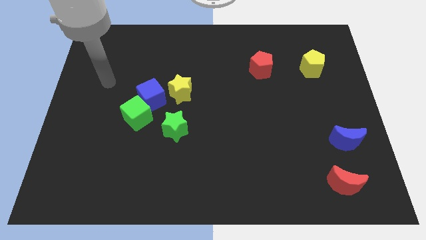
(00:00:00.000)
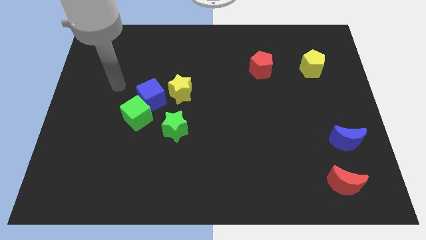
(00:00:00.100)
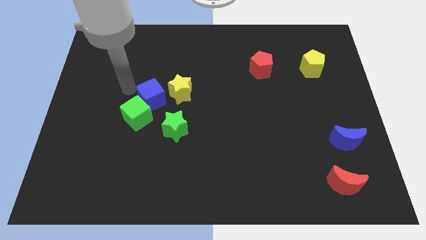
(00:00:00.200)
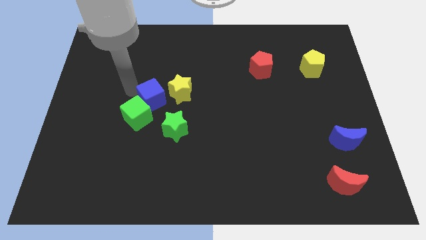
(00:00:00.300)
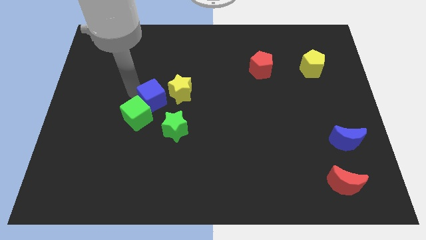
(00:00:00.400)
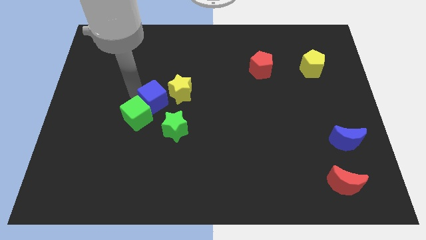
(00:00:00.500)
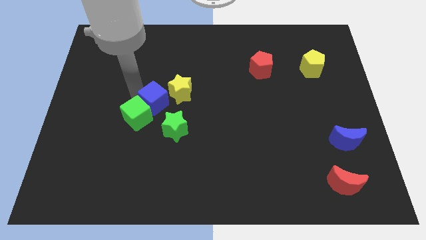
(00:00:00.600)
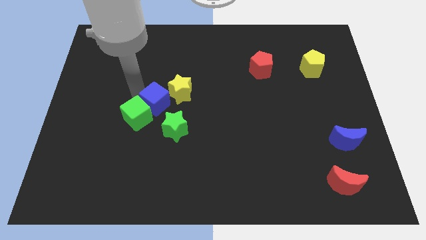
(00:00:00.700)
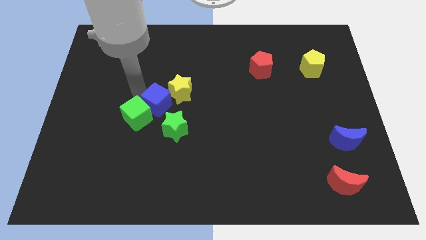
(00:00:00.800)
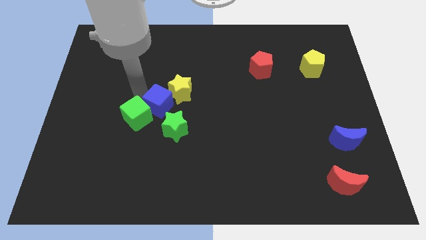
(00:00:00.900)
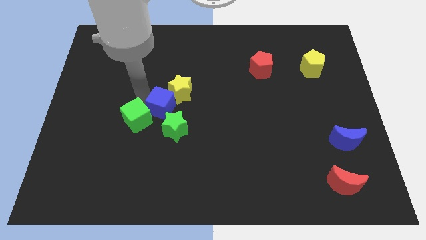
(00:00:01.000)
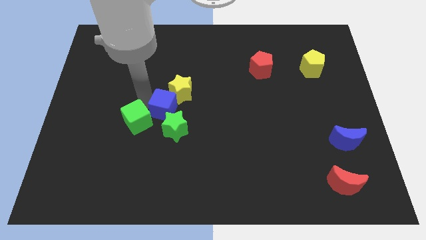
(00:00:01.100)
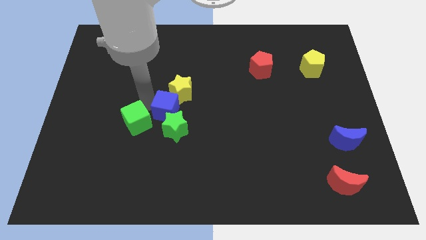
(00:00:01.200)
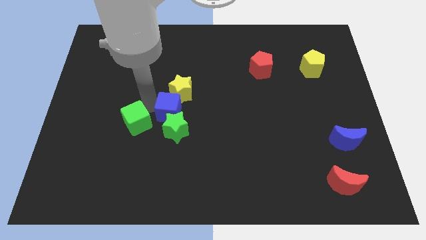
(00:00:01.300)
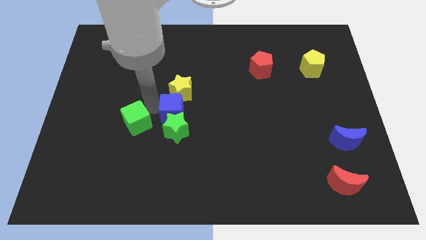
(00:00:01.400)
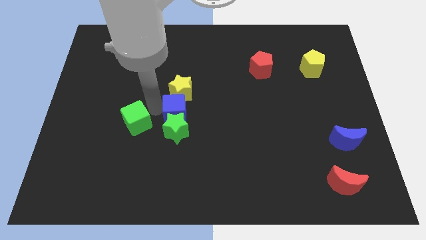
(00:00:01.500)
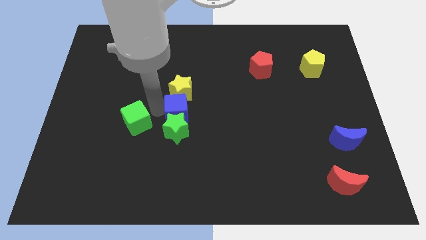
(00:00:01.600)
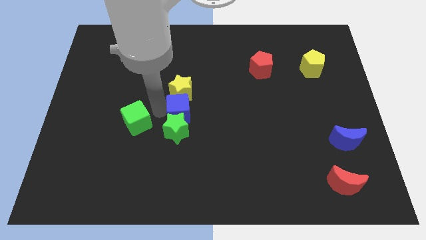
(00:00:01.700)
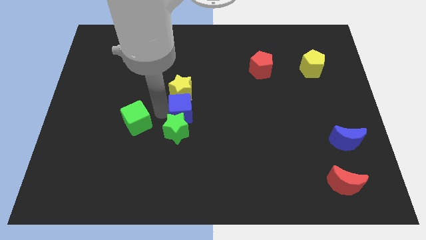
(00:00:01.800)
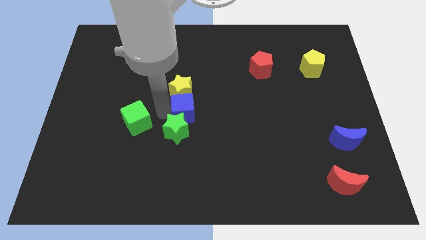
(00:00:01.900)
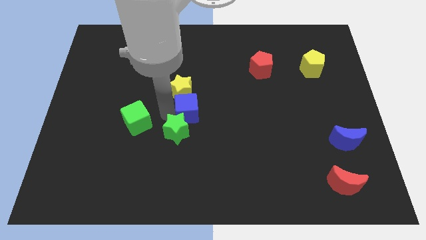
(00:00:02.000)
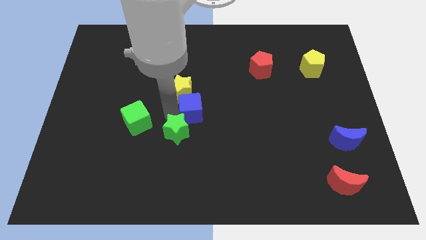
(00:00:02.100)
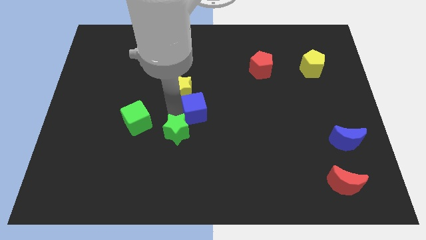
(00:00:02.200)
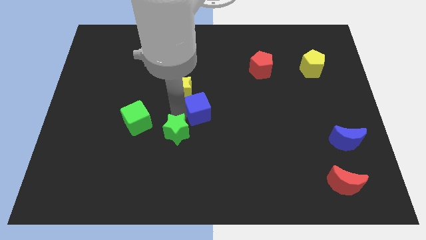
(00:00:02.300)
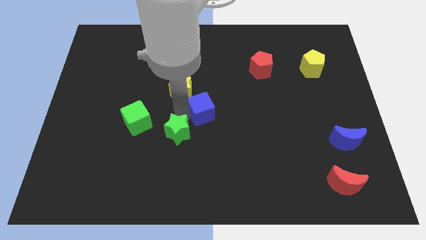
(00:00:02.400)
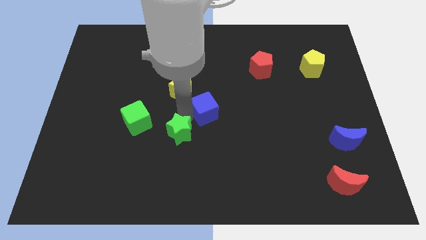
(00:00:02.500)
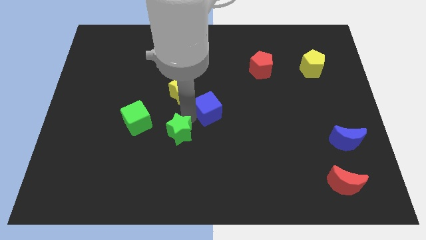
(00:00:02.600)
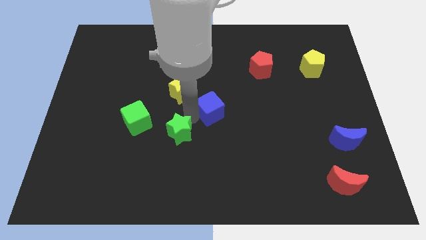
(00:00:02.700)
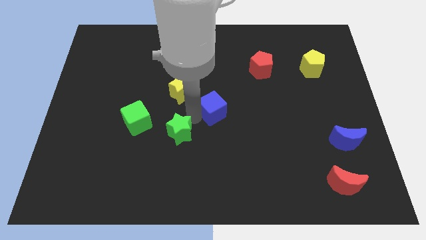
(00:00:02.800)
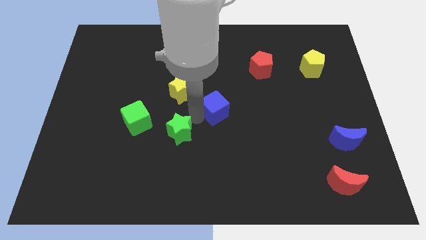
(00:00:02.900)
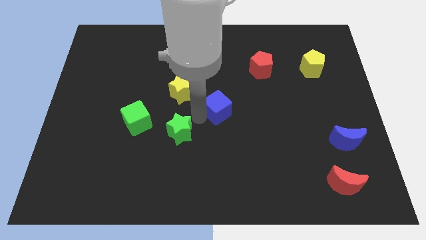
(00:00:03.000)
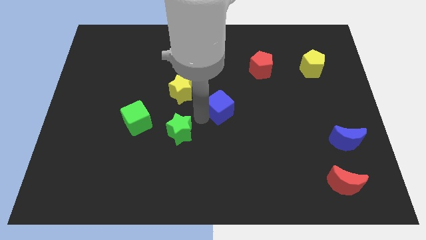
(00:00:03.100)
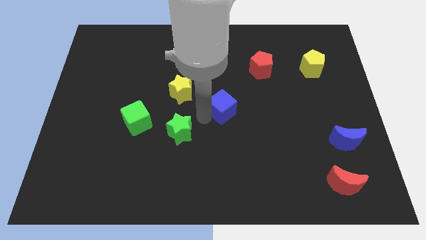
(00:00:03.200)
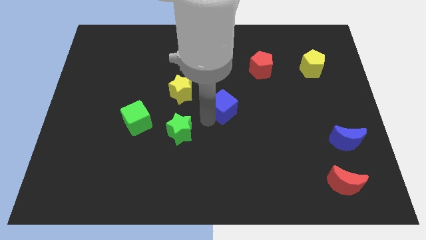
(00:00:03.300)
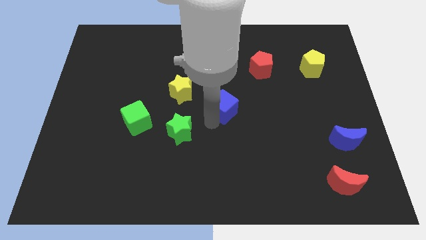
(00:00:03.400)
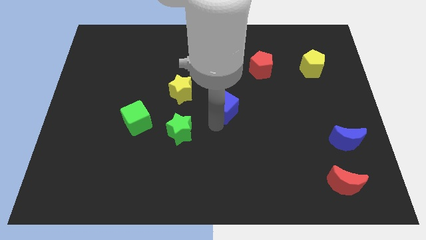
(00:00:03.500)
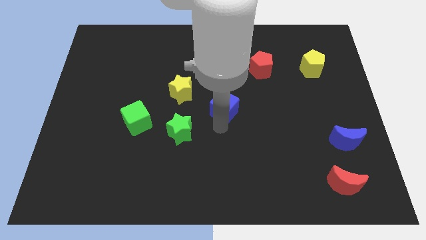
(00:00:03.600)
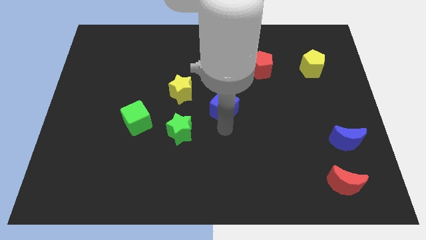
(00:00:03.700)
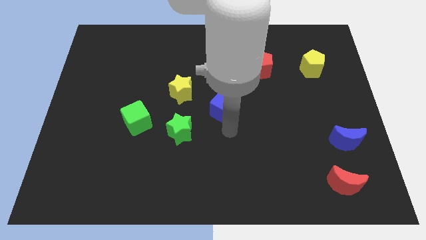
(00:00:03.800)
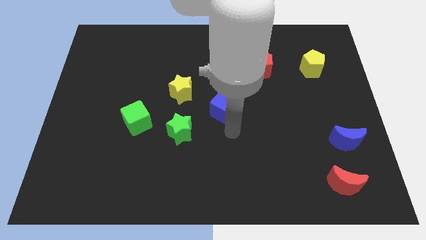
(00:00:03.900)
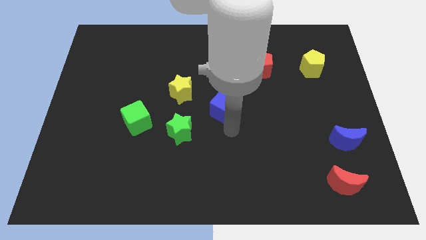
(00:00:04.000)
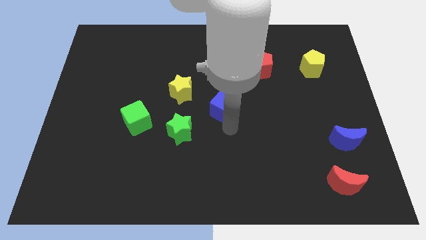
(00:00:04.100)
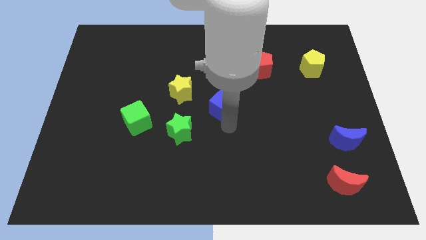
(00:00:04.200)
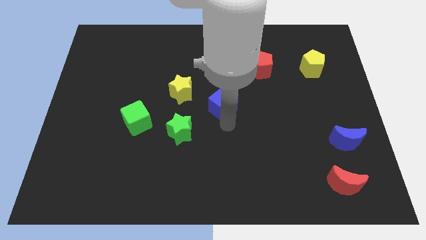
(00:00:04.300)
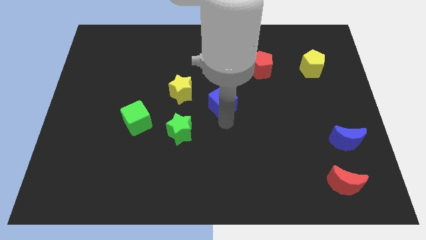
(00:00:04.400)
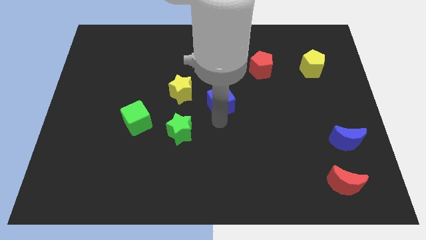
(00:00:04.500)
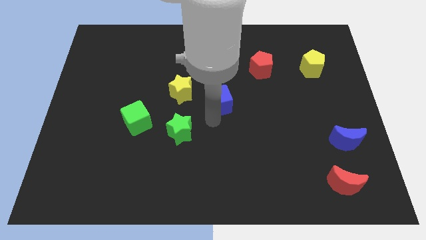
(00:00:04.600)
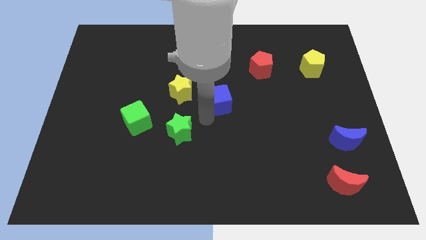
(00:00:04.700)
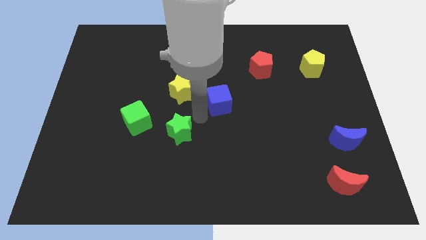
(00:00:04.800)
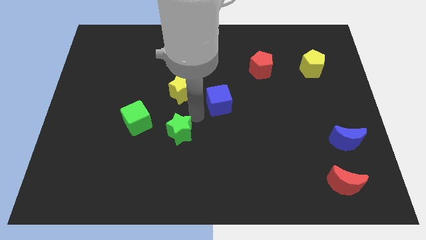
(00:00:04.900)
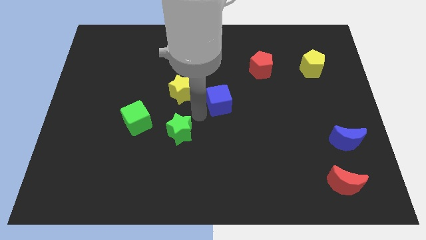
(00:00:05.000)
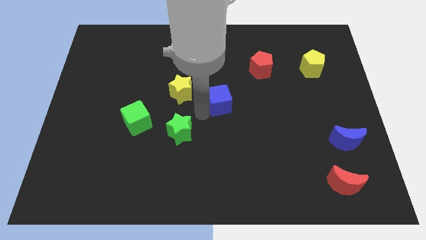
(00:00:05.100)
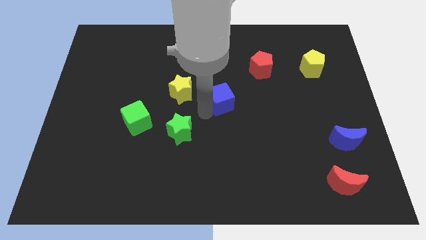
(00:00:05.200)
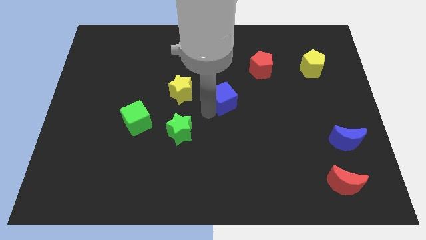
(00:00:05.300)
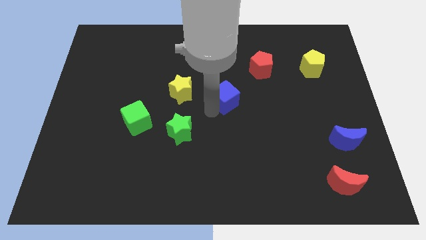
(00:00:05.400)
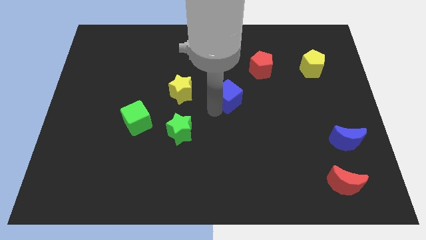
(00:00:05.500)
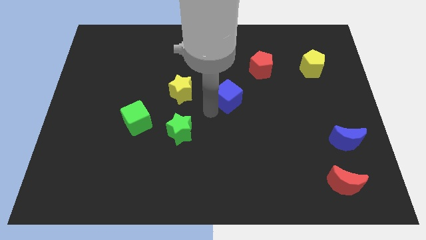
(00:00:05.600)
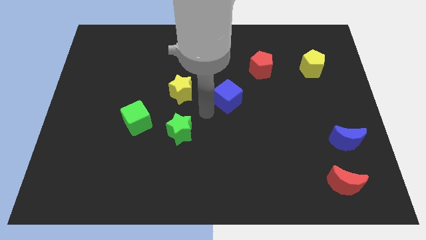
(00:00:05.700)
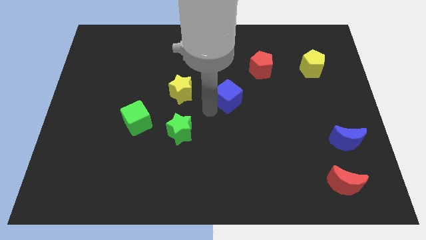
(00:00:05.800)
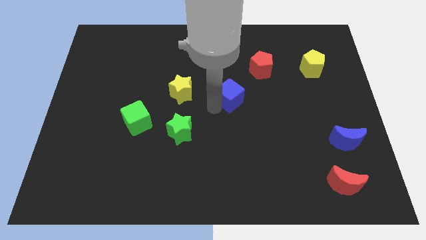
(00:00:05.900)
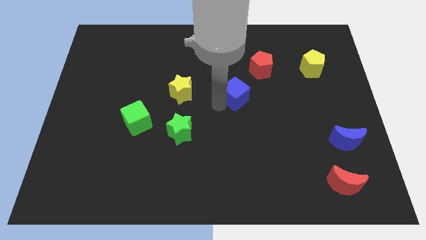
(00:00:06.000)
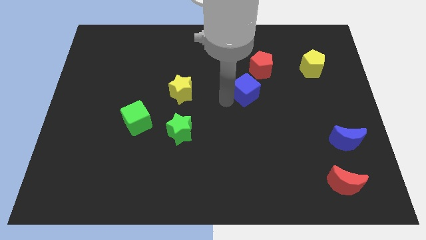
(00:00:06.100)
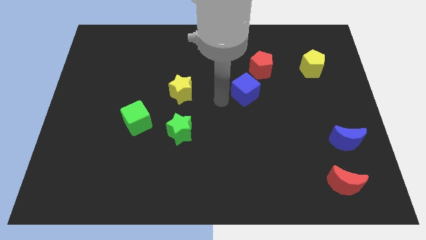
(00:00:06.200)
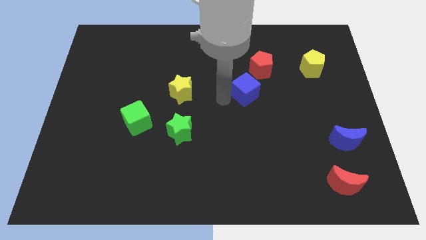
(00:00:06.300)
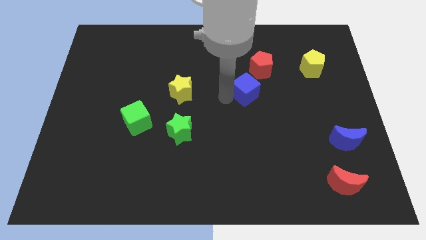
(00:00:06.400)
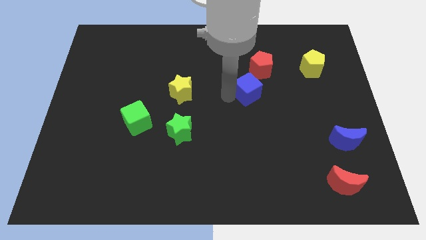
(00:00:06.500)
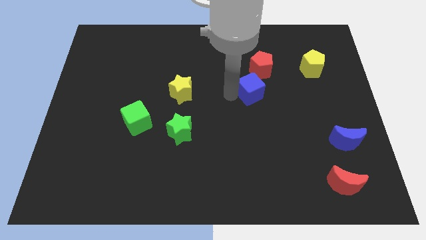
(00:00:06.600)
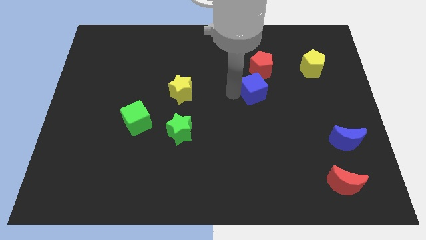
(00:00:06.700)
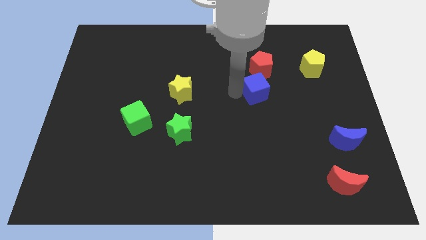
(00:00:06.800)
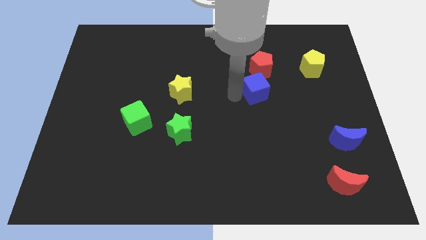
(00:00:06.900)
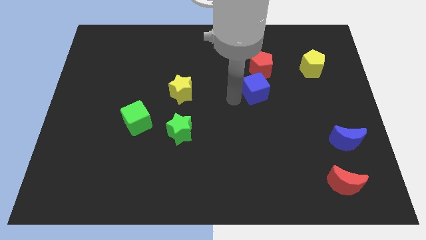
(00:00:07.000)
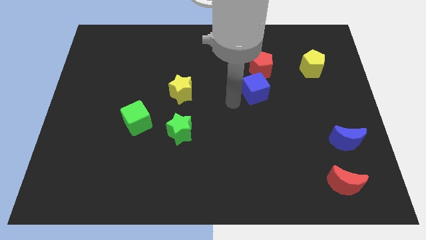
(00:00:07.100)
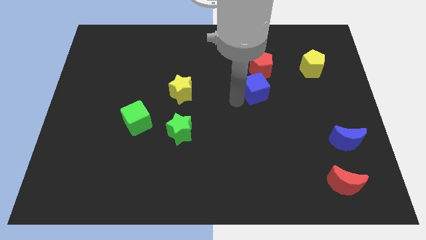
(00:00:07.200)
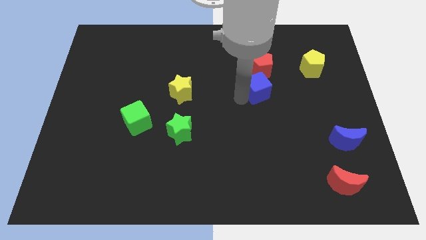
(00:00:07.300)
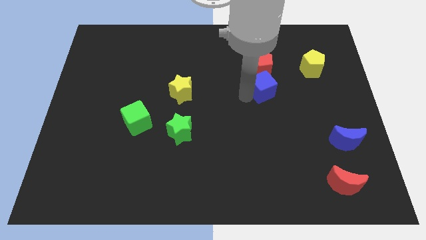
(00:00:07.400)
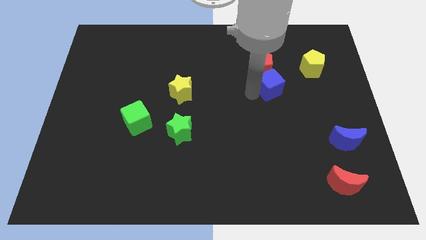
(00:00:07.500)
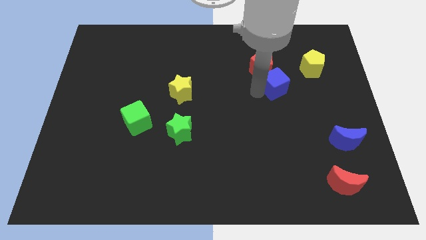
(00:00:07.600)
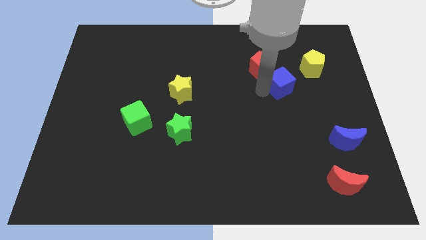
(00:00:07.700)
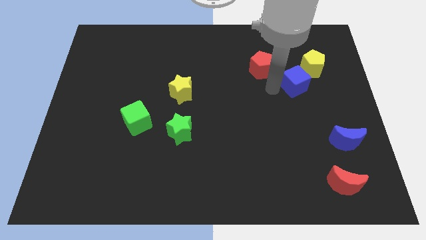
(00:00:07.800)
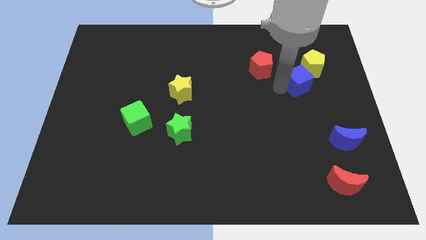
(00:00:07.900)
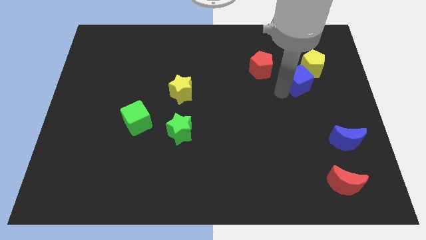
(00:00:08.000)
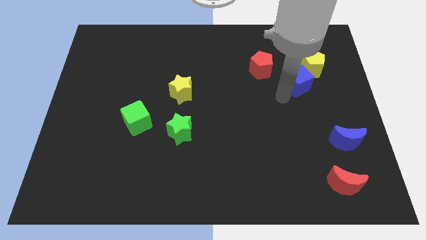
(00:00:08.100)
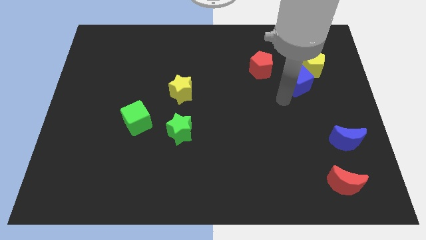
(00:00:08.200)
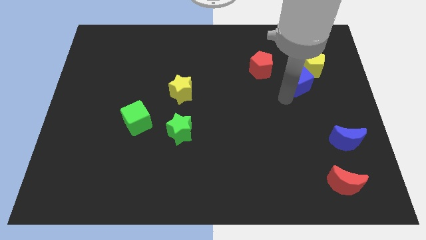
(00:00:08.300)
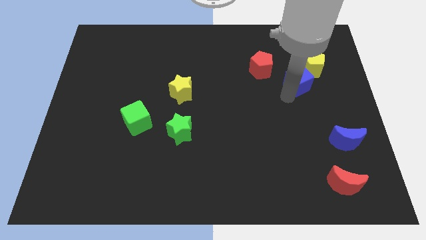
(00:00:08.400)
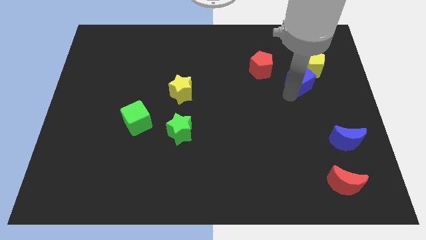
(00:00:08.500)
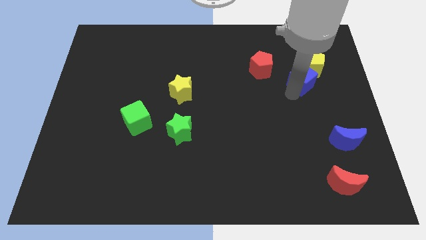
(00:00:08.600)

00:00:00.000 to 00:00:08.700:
slide the blue cube close to the yellow pentagon
